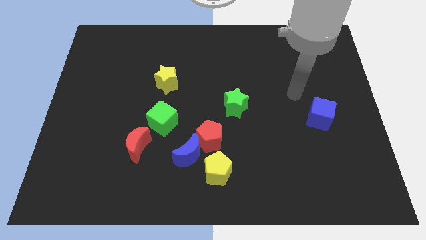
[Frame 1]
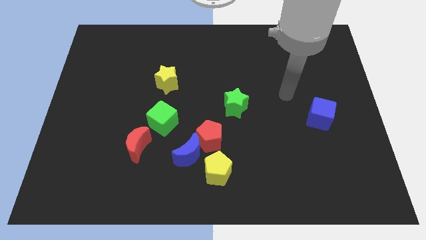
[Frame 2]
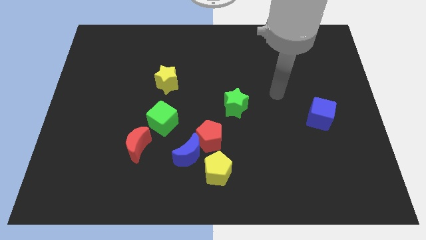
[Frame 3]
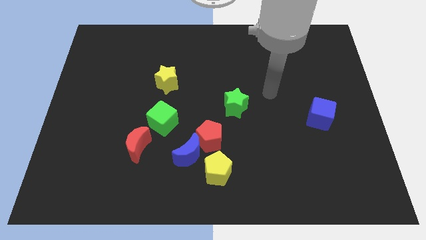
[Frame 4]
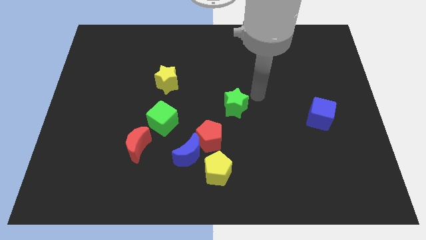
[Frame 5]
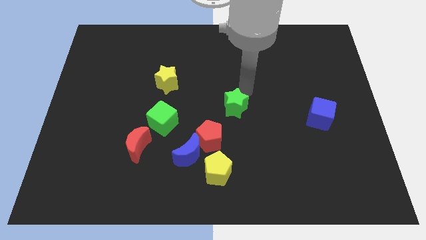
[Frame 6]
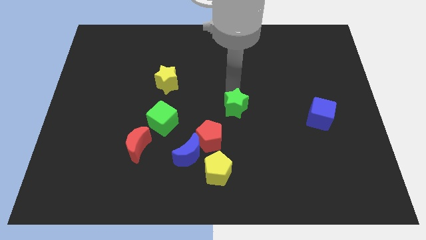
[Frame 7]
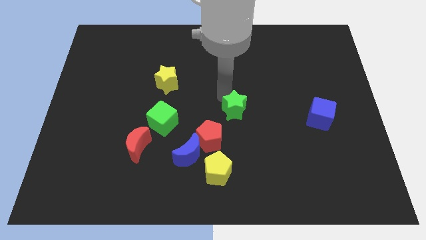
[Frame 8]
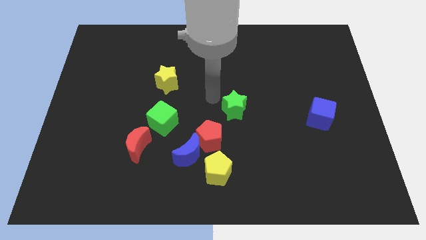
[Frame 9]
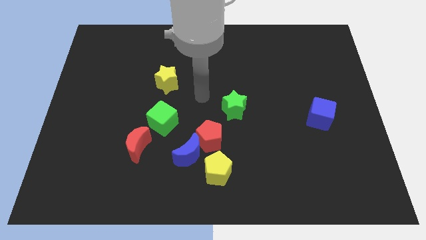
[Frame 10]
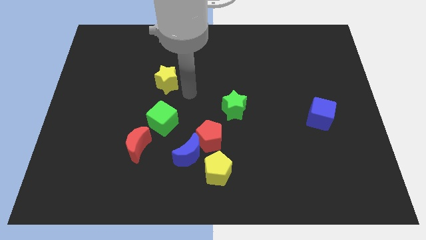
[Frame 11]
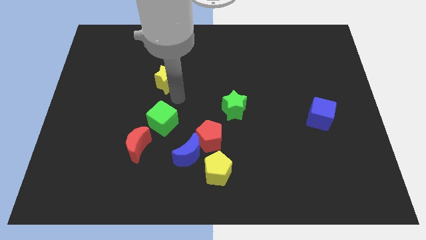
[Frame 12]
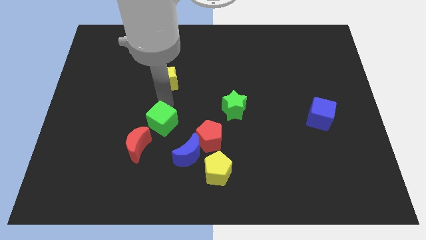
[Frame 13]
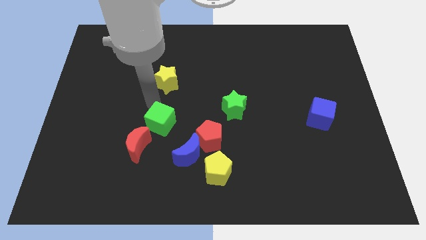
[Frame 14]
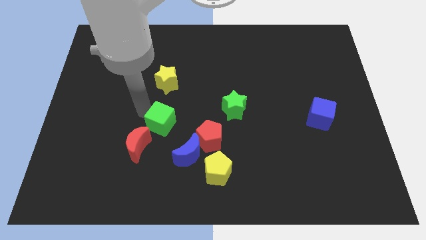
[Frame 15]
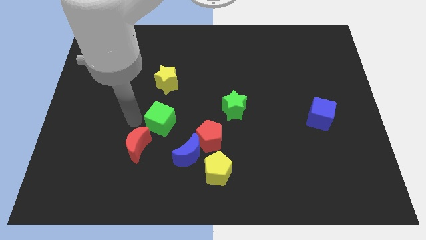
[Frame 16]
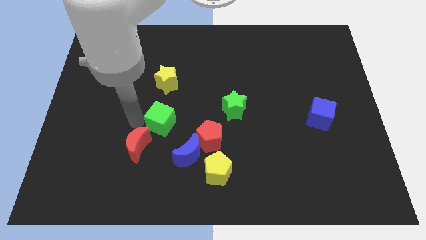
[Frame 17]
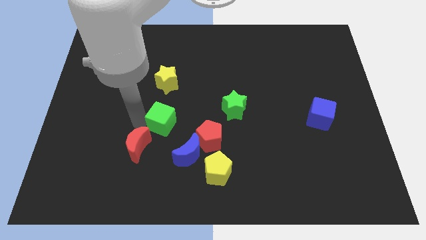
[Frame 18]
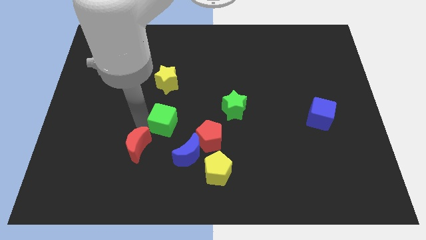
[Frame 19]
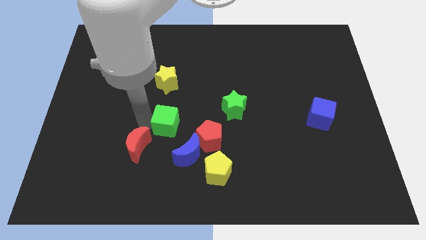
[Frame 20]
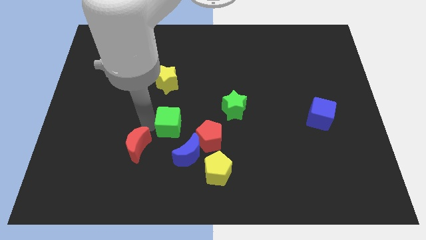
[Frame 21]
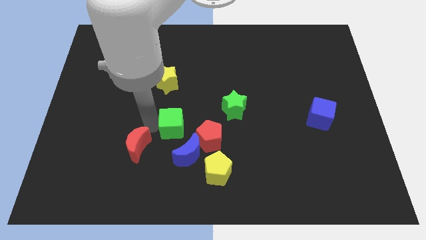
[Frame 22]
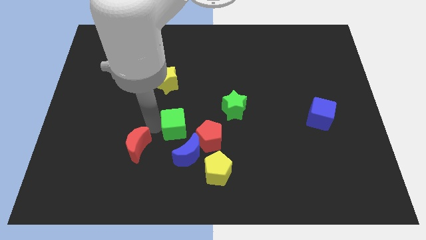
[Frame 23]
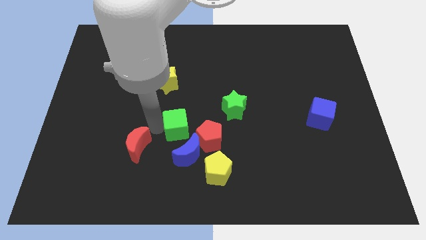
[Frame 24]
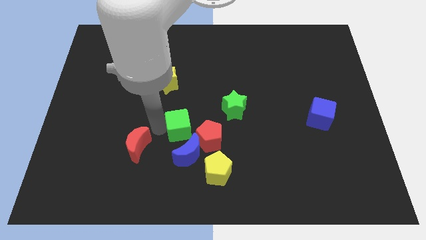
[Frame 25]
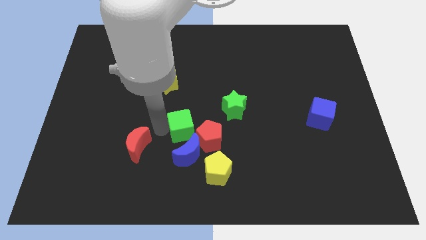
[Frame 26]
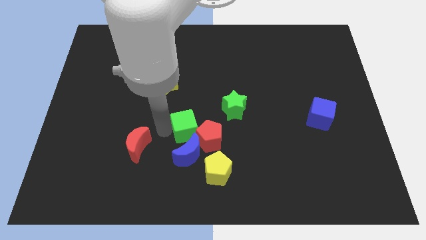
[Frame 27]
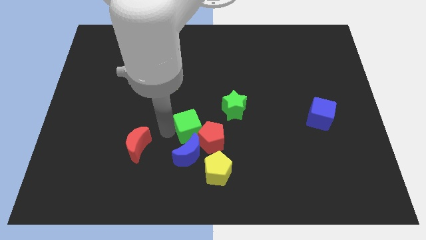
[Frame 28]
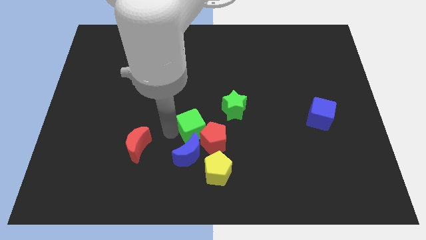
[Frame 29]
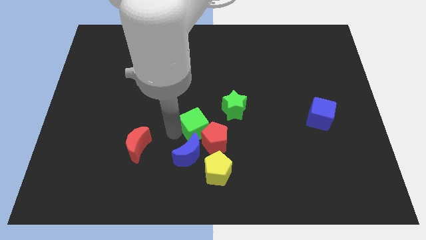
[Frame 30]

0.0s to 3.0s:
slide the green cube to the right slightly

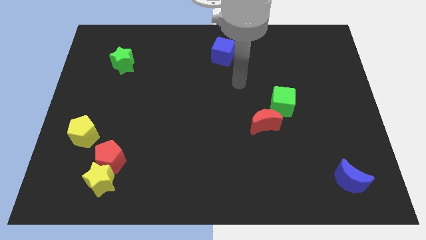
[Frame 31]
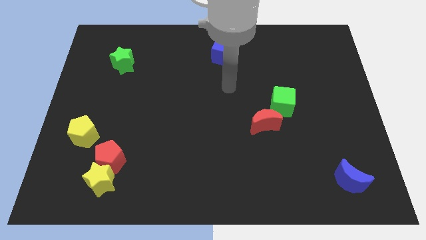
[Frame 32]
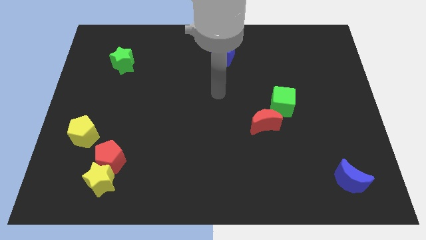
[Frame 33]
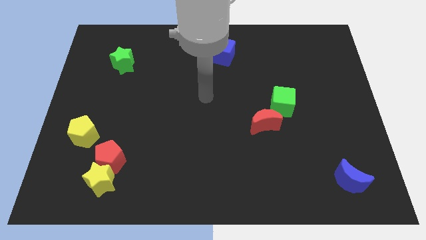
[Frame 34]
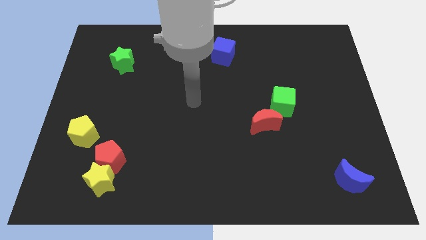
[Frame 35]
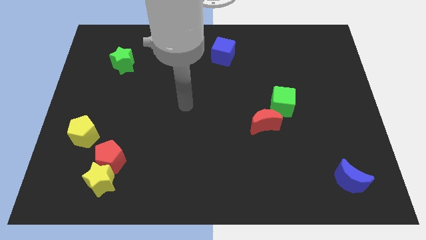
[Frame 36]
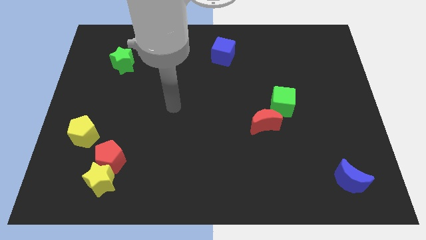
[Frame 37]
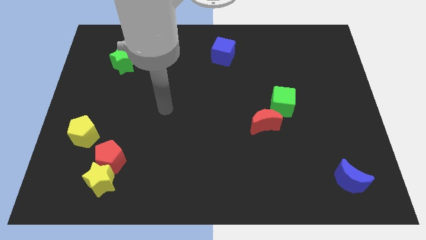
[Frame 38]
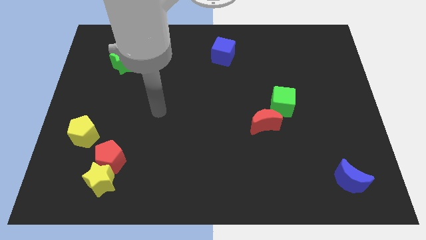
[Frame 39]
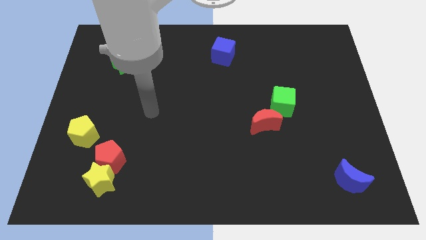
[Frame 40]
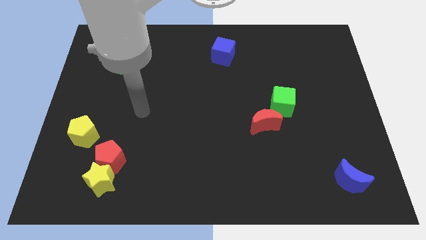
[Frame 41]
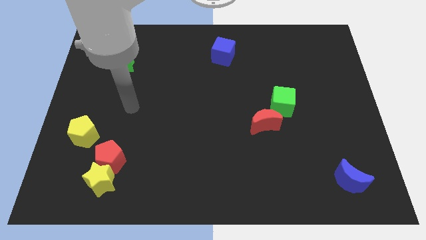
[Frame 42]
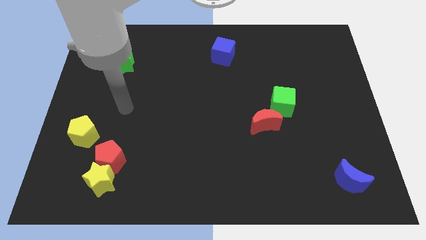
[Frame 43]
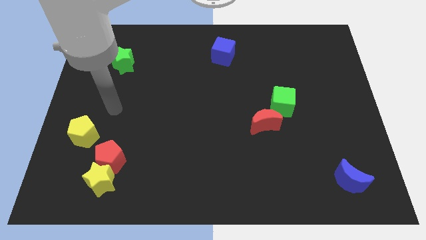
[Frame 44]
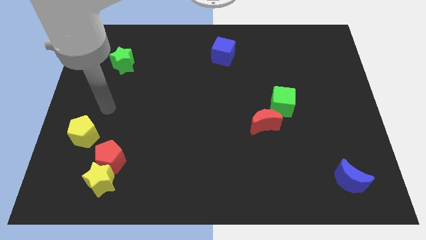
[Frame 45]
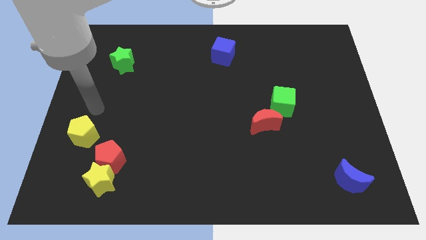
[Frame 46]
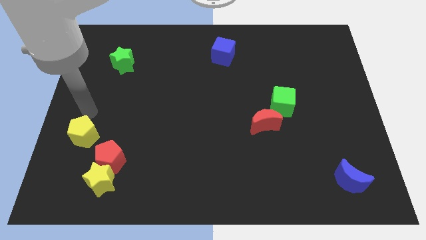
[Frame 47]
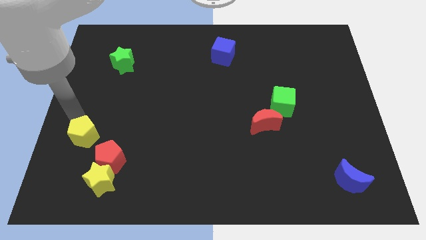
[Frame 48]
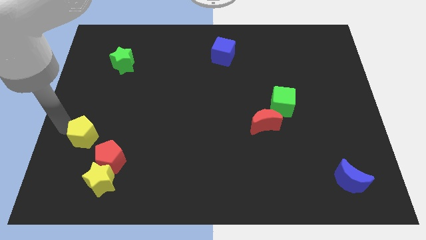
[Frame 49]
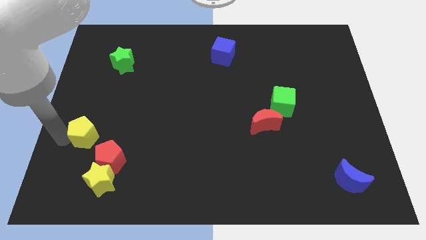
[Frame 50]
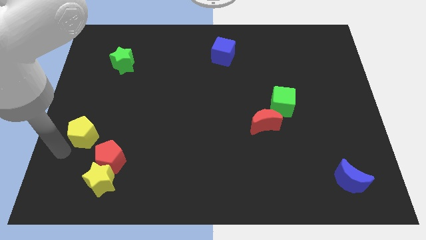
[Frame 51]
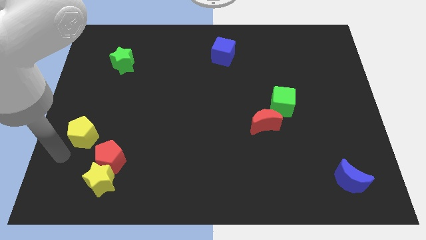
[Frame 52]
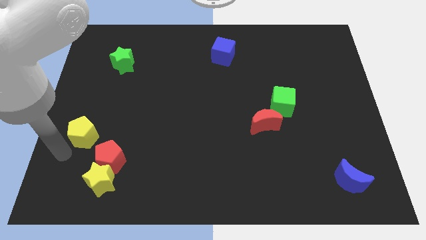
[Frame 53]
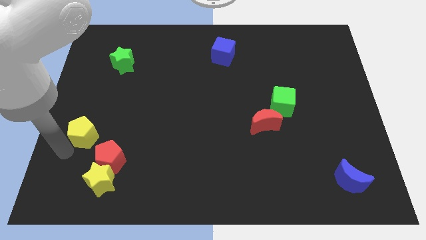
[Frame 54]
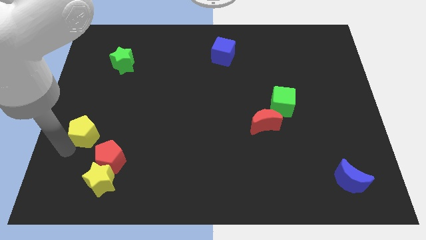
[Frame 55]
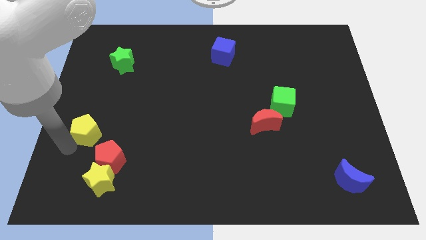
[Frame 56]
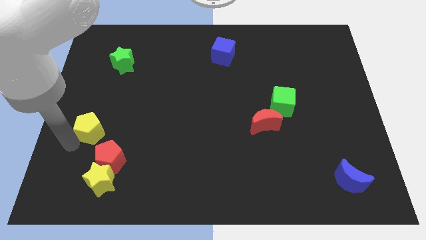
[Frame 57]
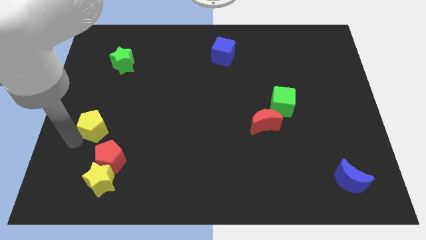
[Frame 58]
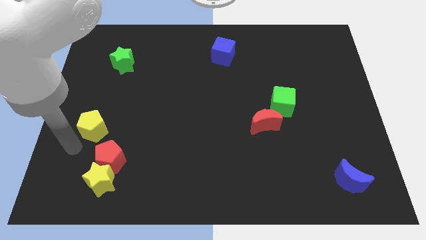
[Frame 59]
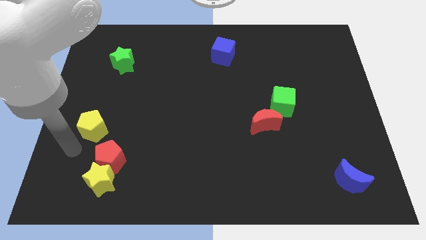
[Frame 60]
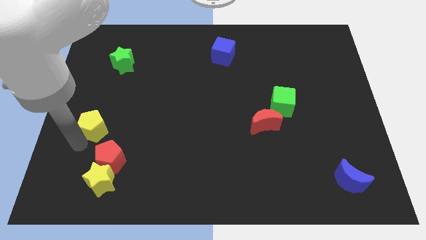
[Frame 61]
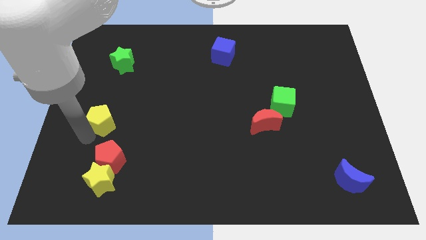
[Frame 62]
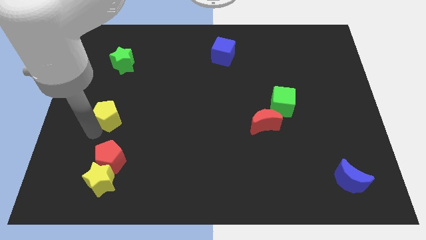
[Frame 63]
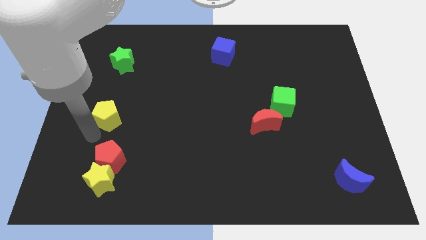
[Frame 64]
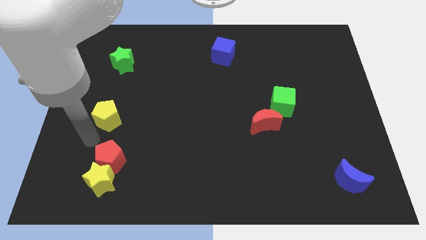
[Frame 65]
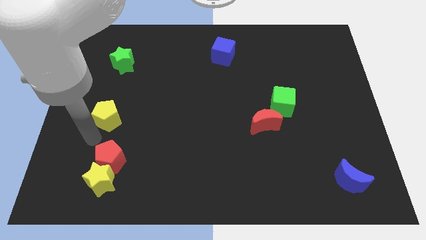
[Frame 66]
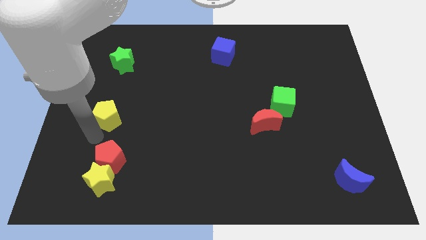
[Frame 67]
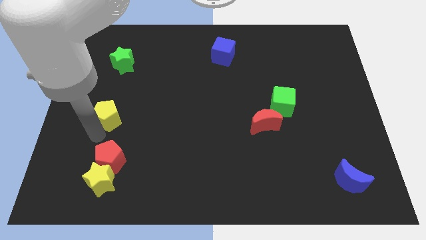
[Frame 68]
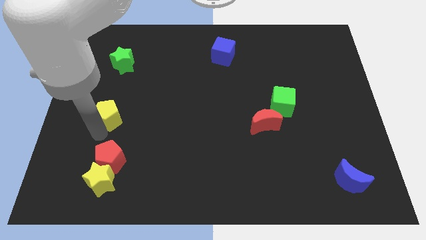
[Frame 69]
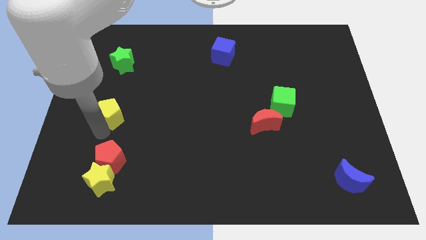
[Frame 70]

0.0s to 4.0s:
push the yellow pentagon somewhat up and then to the right

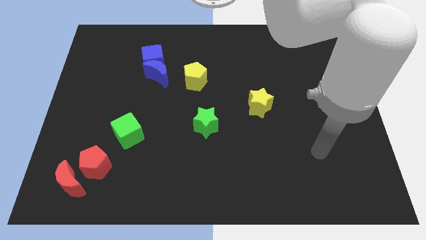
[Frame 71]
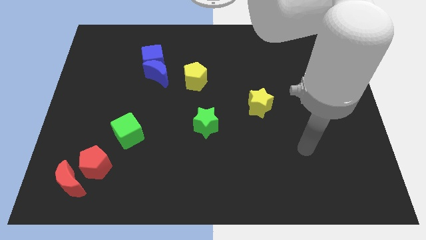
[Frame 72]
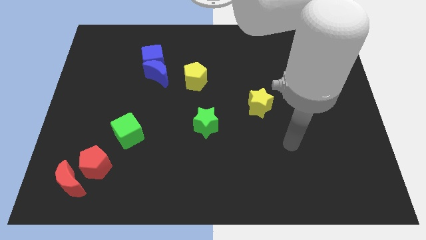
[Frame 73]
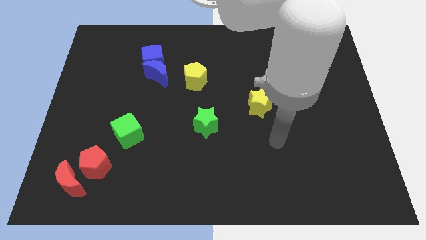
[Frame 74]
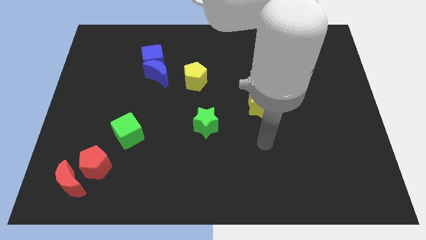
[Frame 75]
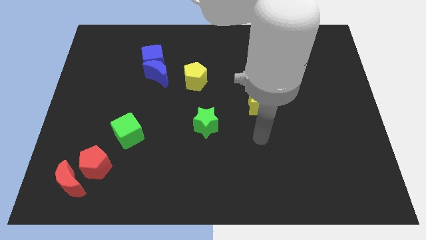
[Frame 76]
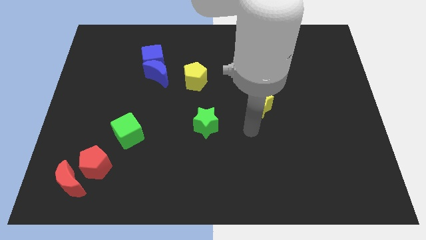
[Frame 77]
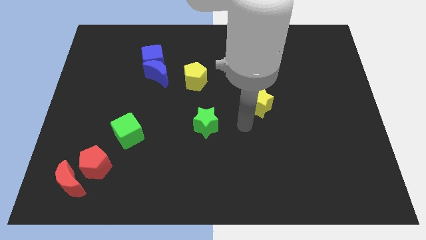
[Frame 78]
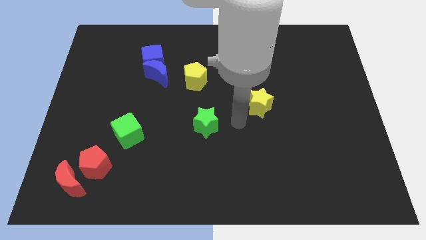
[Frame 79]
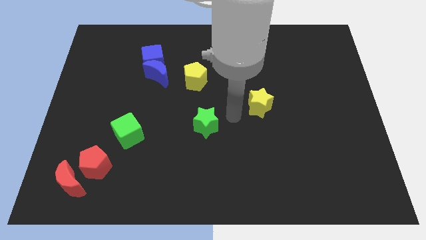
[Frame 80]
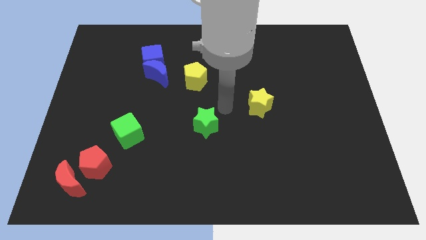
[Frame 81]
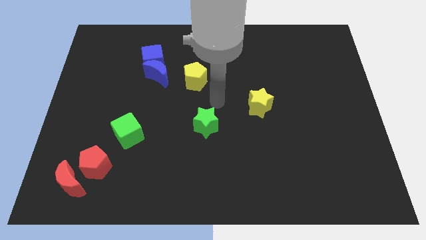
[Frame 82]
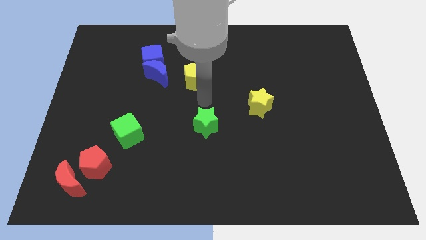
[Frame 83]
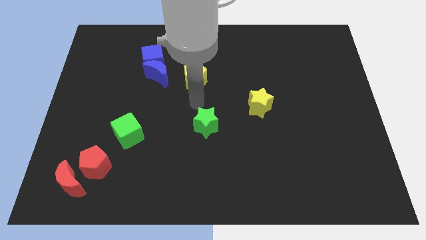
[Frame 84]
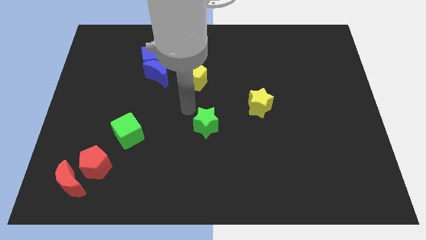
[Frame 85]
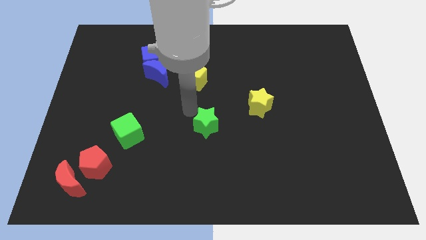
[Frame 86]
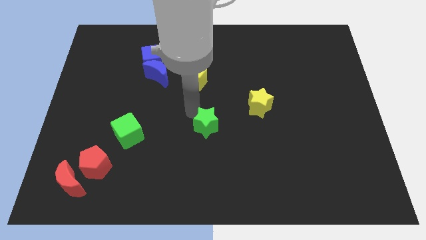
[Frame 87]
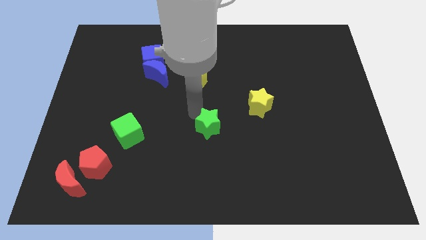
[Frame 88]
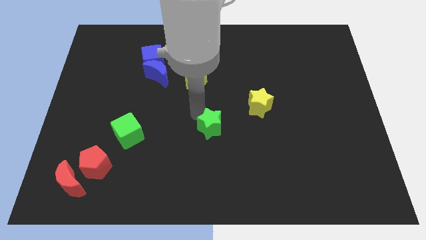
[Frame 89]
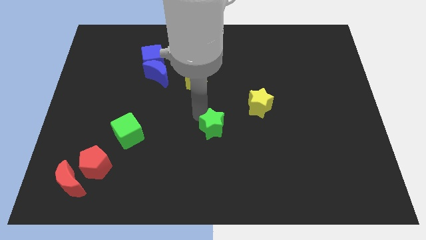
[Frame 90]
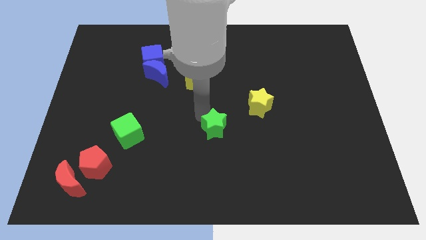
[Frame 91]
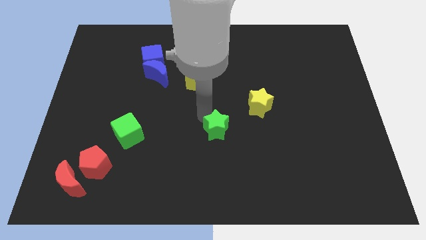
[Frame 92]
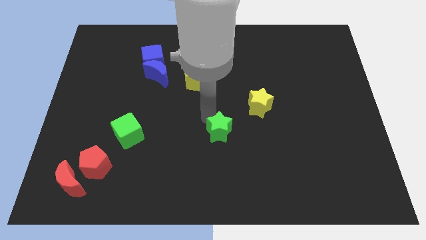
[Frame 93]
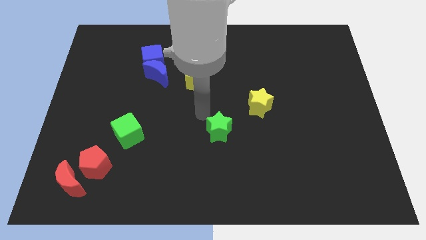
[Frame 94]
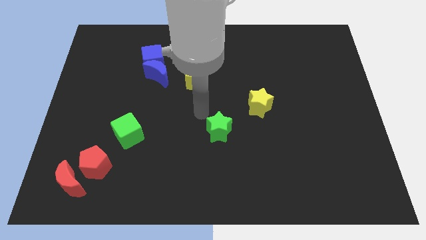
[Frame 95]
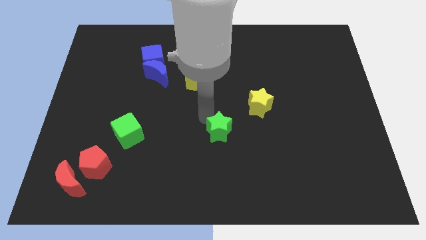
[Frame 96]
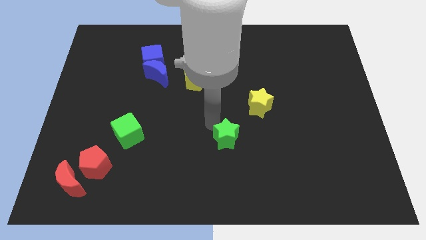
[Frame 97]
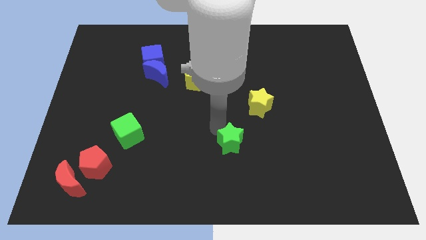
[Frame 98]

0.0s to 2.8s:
push the green star diagonally down and to the right a little bit
